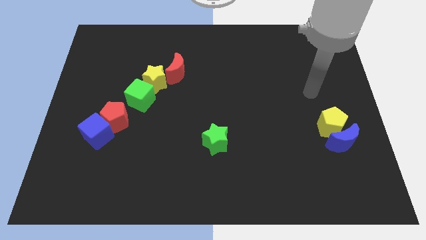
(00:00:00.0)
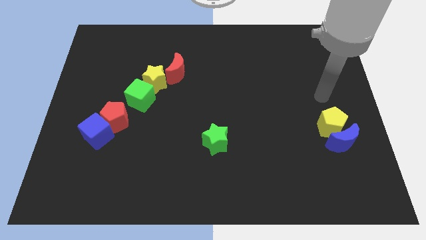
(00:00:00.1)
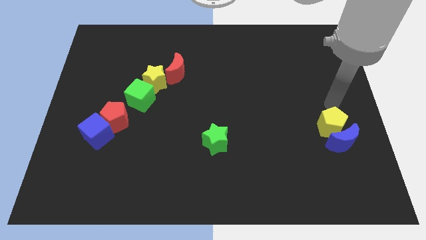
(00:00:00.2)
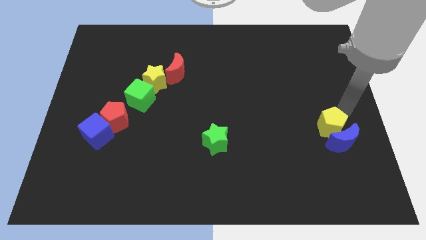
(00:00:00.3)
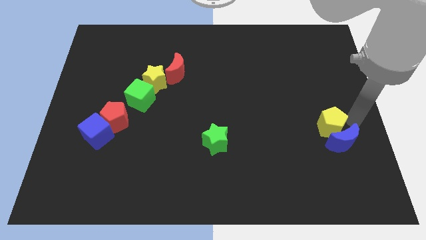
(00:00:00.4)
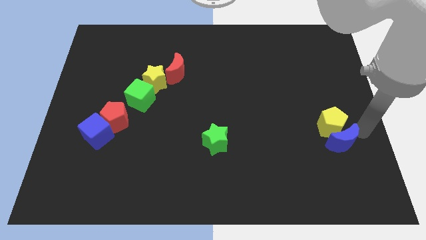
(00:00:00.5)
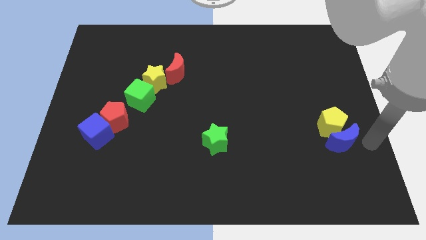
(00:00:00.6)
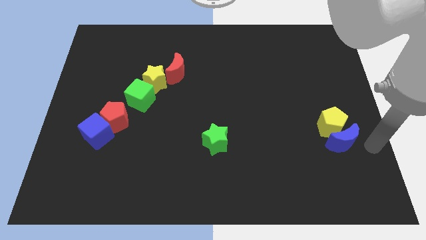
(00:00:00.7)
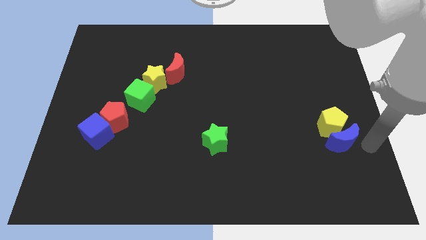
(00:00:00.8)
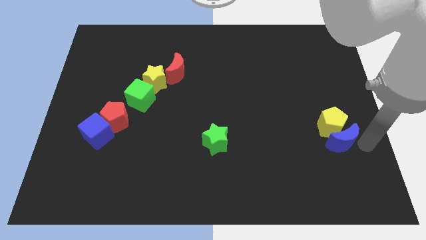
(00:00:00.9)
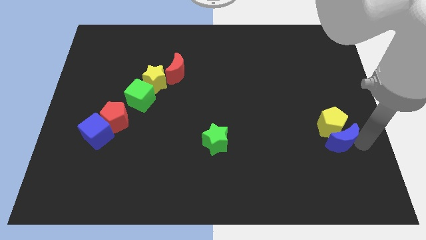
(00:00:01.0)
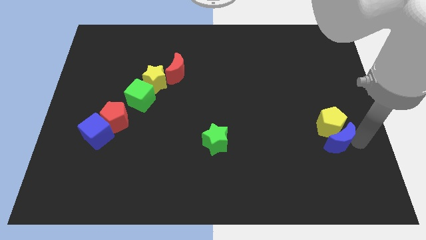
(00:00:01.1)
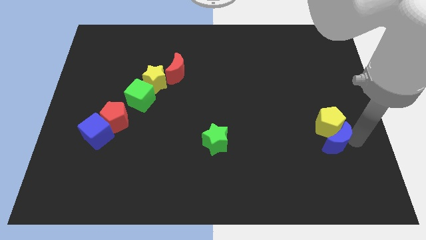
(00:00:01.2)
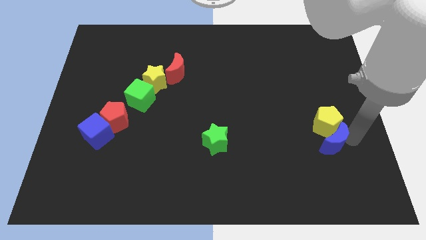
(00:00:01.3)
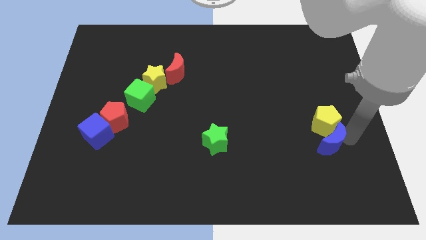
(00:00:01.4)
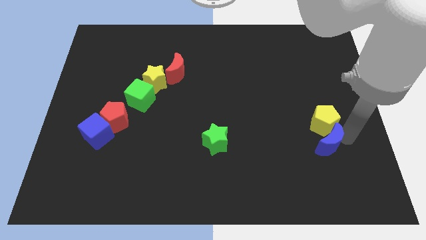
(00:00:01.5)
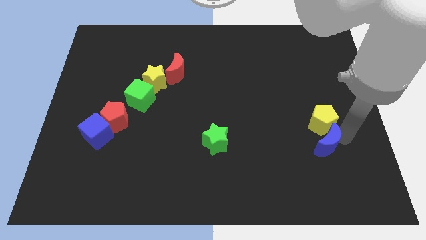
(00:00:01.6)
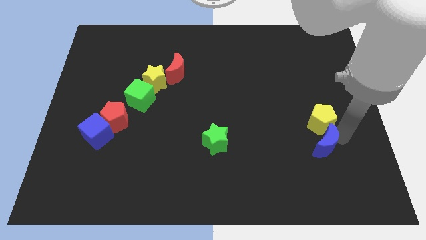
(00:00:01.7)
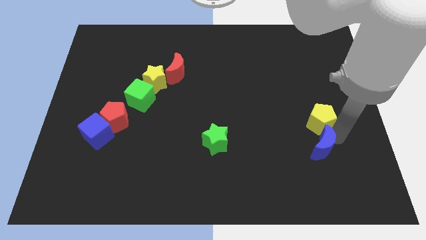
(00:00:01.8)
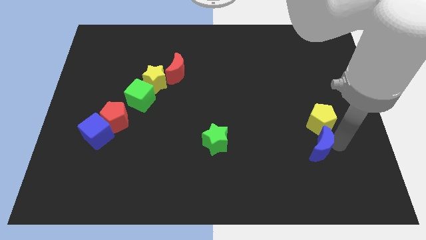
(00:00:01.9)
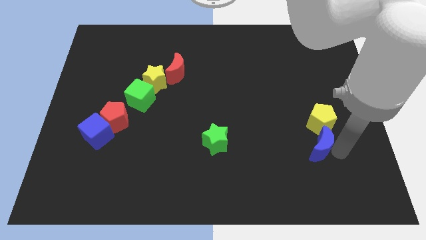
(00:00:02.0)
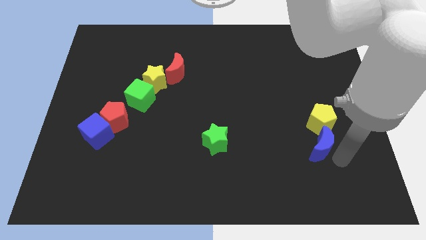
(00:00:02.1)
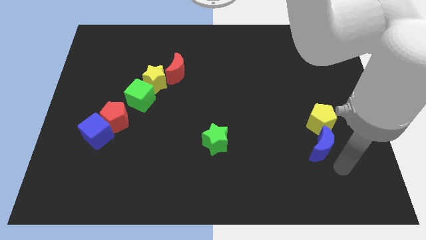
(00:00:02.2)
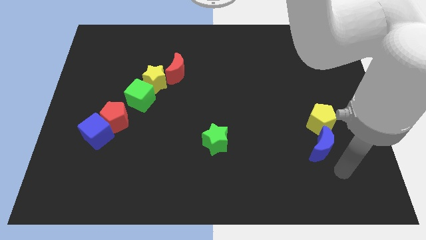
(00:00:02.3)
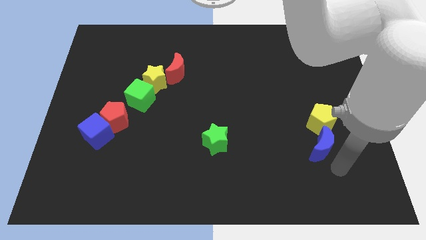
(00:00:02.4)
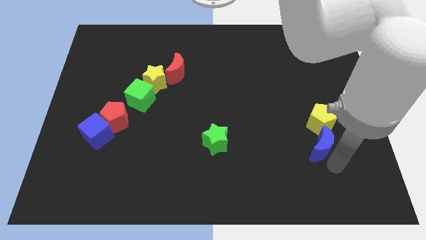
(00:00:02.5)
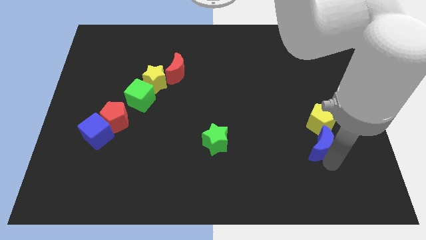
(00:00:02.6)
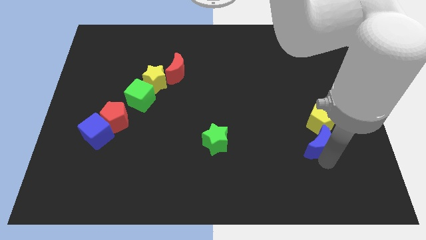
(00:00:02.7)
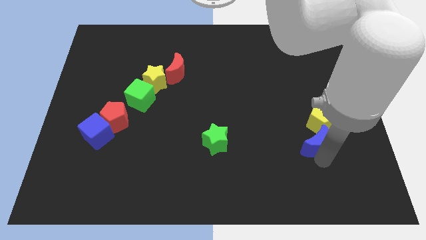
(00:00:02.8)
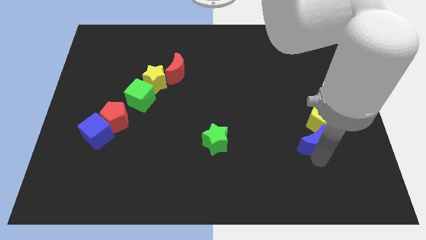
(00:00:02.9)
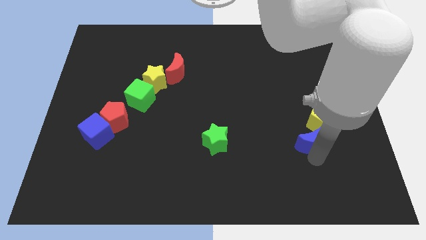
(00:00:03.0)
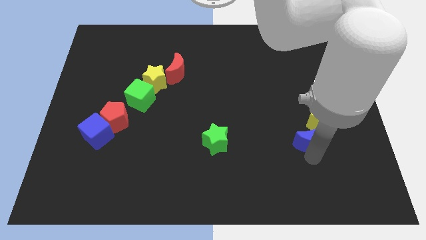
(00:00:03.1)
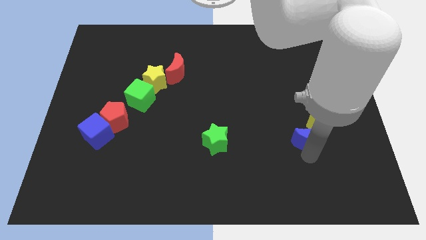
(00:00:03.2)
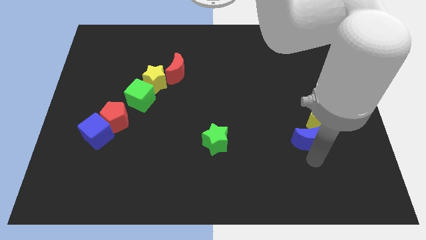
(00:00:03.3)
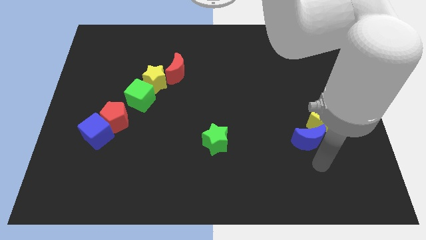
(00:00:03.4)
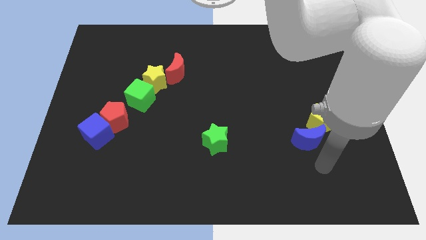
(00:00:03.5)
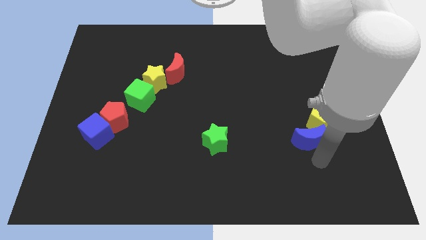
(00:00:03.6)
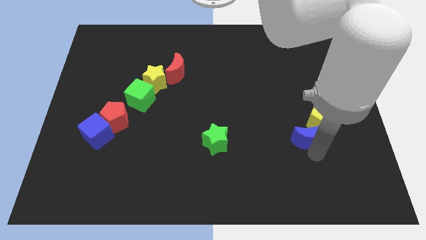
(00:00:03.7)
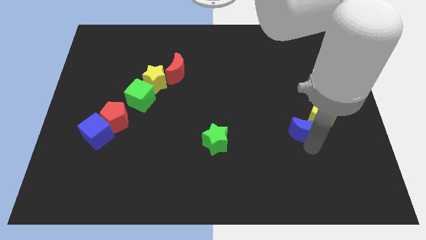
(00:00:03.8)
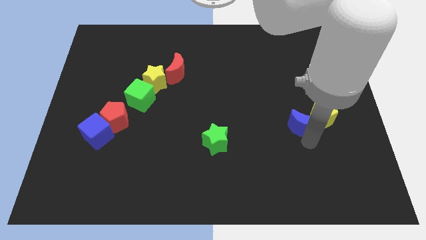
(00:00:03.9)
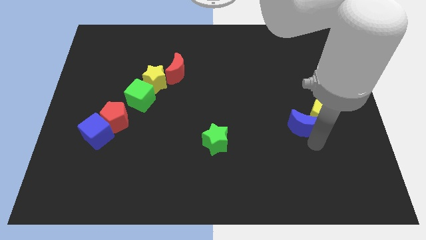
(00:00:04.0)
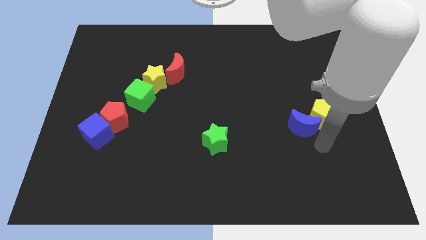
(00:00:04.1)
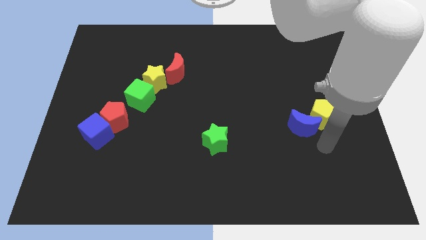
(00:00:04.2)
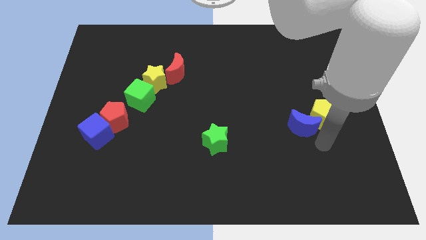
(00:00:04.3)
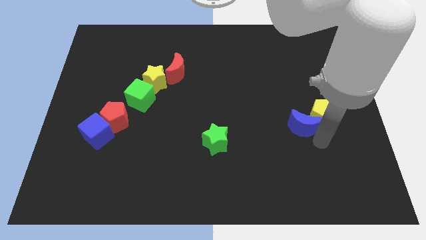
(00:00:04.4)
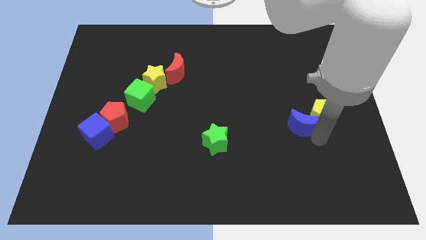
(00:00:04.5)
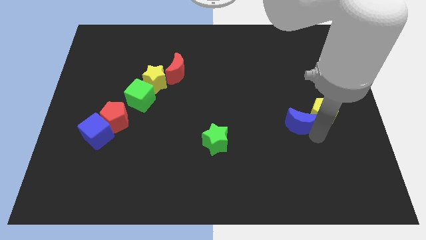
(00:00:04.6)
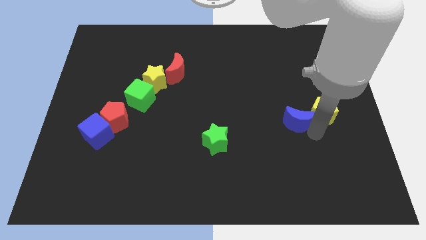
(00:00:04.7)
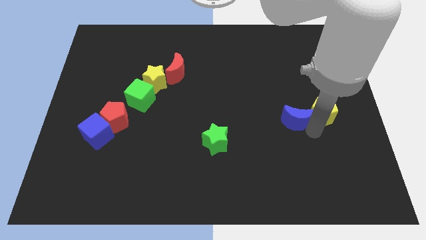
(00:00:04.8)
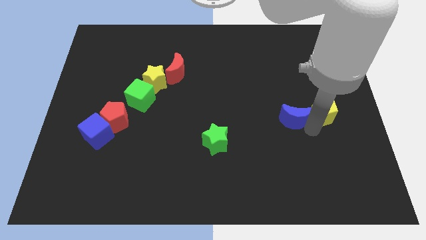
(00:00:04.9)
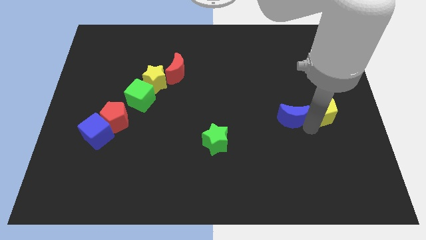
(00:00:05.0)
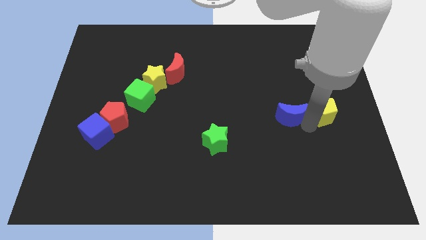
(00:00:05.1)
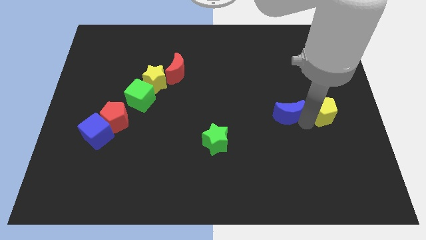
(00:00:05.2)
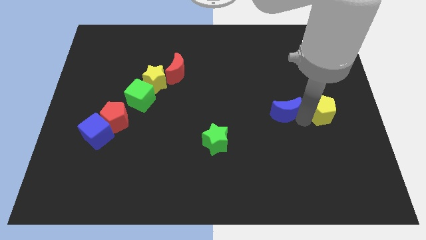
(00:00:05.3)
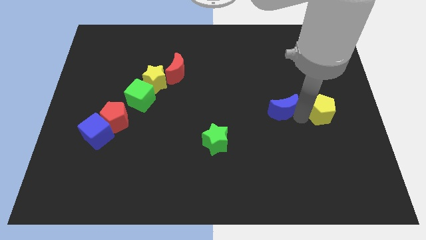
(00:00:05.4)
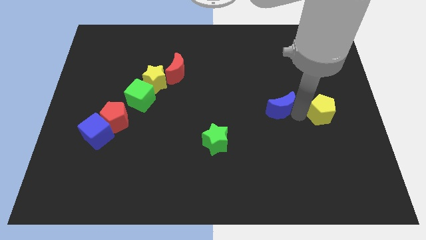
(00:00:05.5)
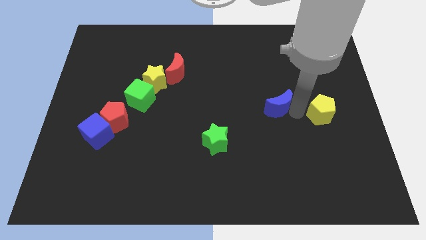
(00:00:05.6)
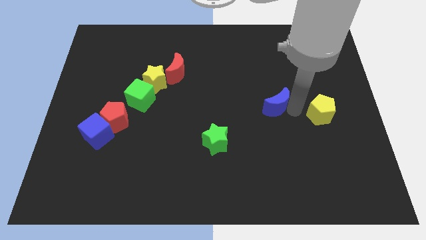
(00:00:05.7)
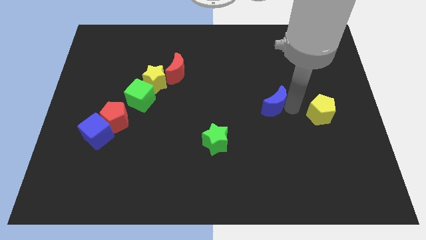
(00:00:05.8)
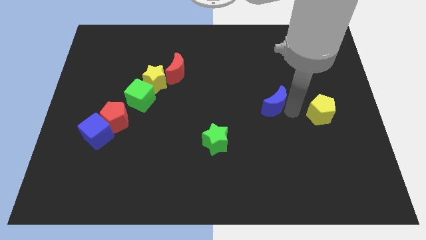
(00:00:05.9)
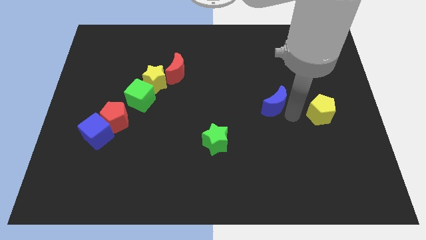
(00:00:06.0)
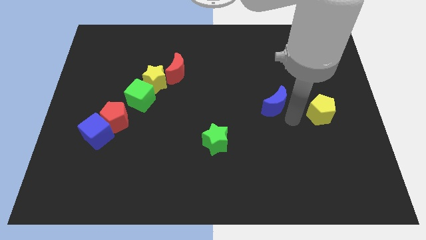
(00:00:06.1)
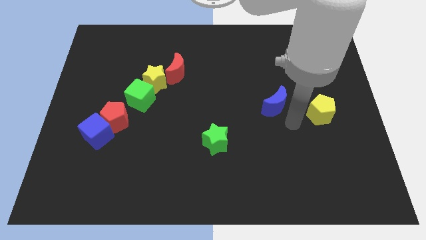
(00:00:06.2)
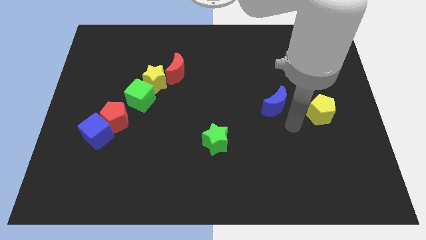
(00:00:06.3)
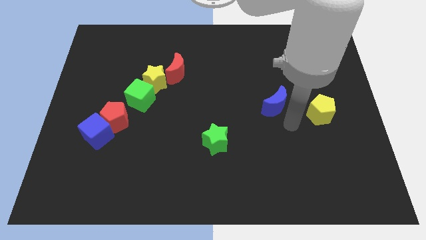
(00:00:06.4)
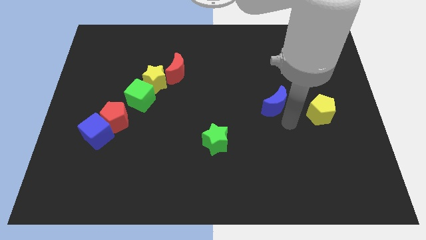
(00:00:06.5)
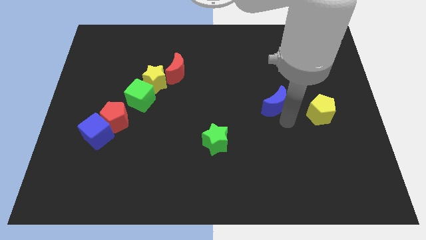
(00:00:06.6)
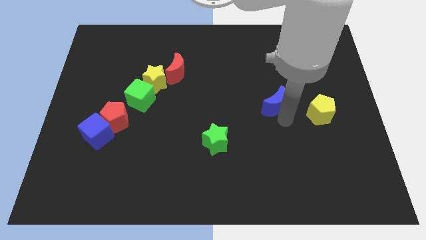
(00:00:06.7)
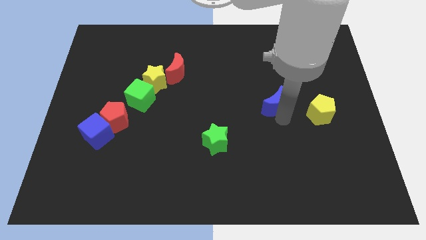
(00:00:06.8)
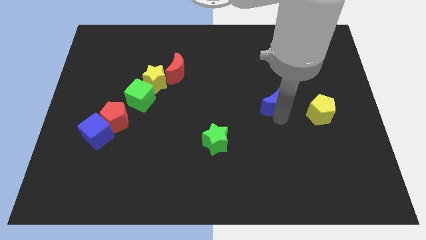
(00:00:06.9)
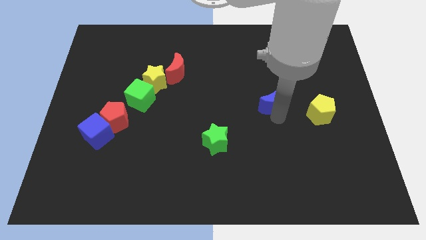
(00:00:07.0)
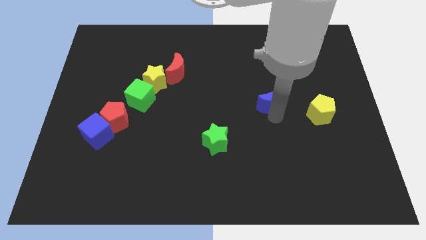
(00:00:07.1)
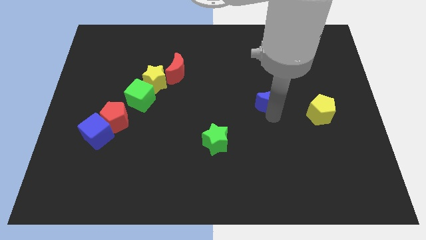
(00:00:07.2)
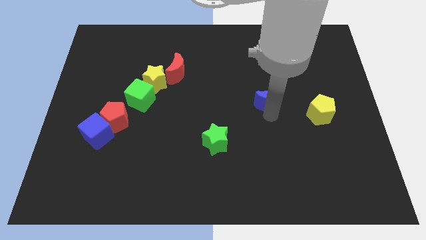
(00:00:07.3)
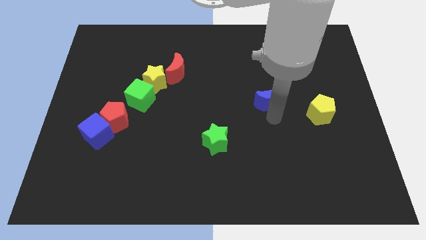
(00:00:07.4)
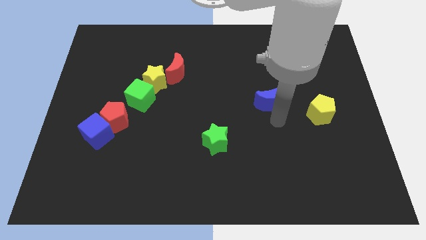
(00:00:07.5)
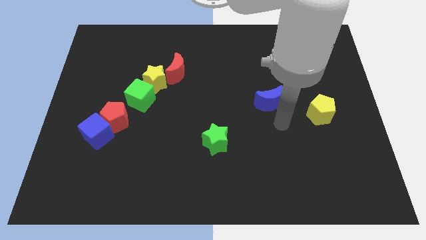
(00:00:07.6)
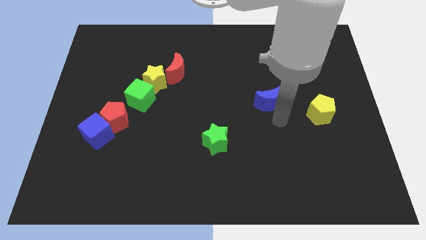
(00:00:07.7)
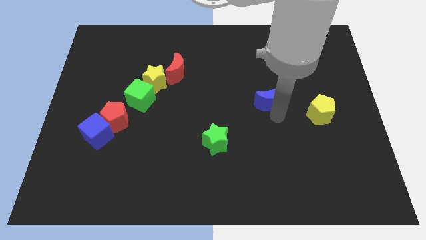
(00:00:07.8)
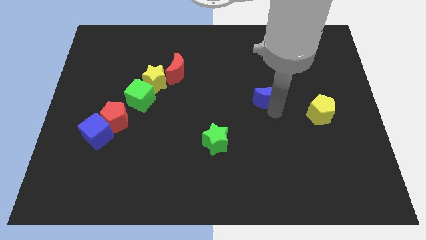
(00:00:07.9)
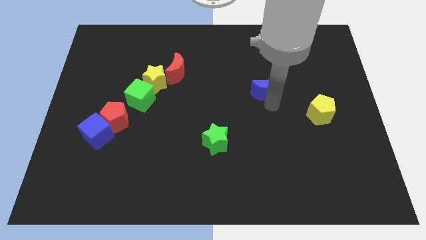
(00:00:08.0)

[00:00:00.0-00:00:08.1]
slide the blue moon up and then left
